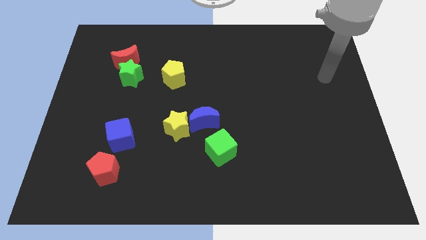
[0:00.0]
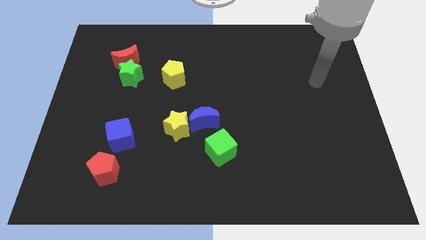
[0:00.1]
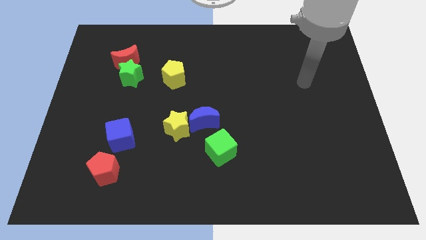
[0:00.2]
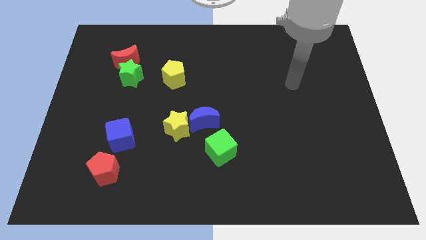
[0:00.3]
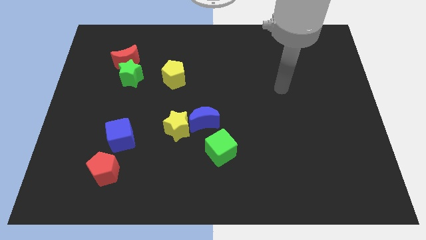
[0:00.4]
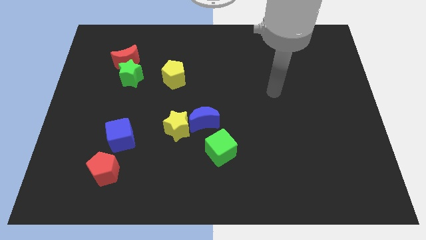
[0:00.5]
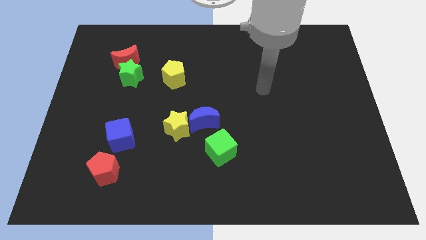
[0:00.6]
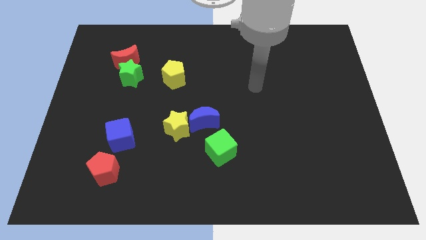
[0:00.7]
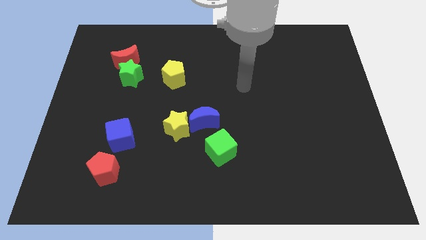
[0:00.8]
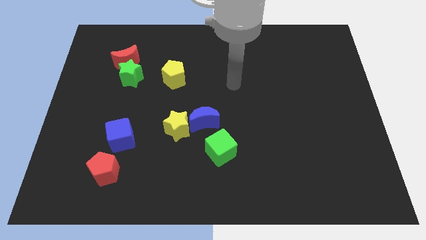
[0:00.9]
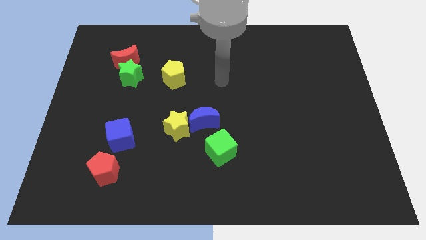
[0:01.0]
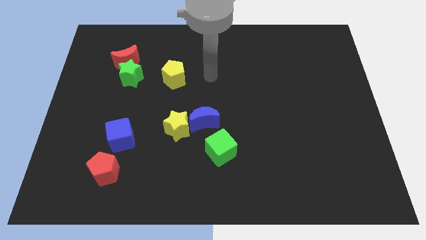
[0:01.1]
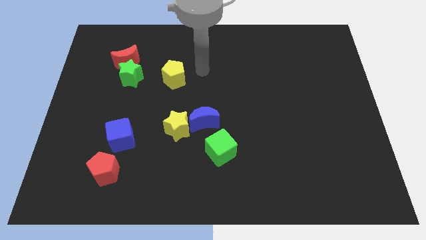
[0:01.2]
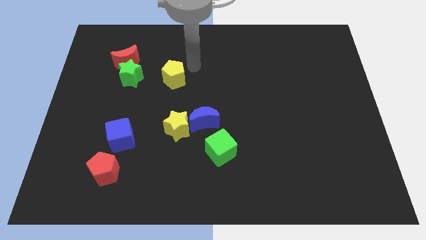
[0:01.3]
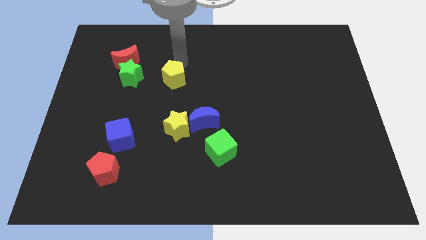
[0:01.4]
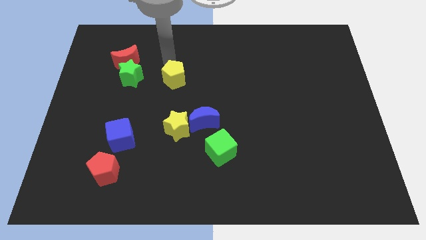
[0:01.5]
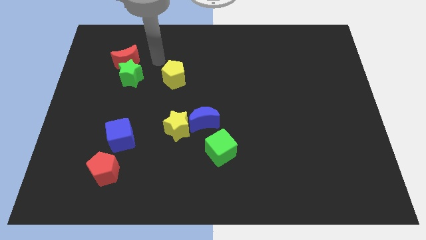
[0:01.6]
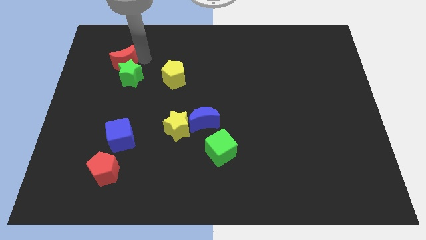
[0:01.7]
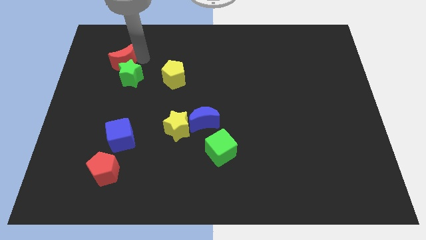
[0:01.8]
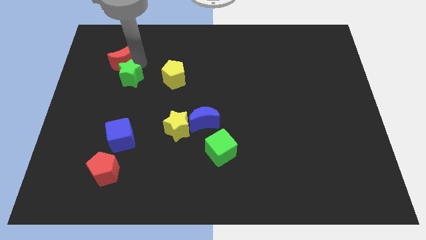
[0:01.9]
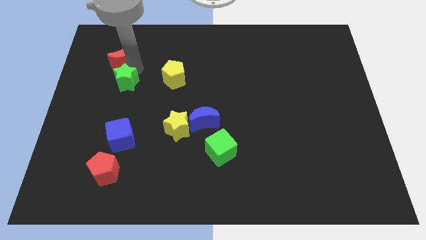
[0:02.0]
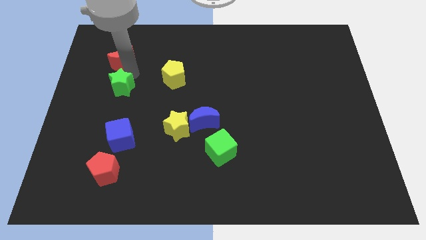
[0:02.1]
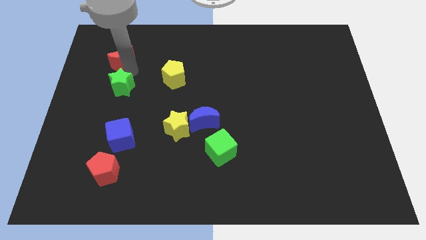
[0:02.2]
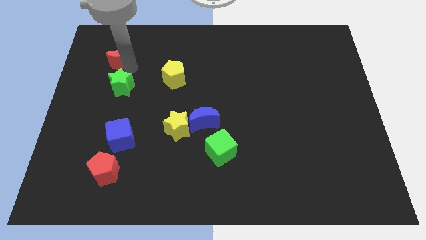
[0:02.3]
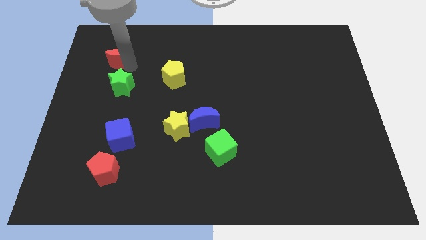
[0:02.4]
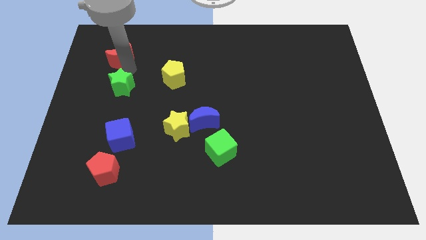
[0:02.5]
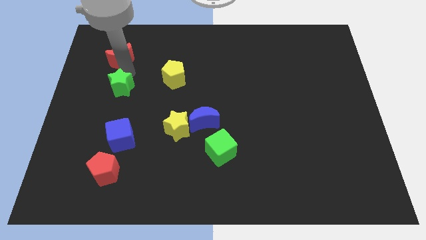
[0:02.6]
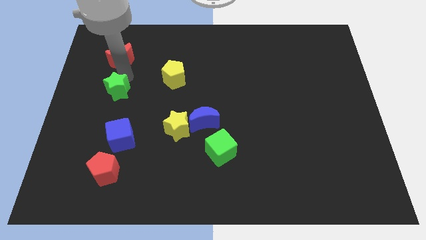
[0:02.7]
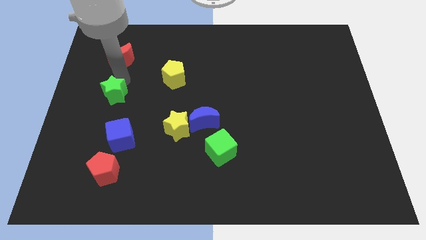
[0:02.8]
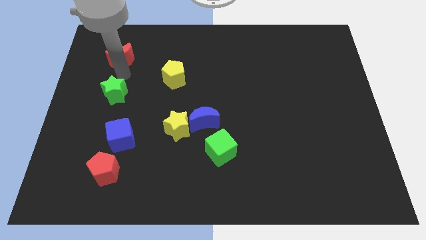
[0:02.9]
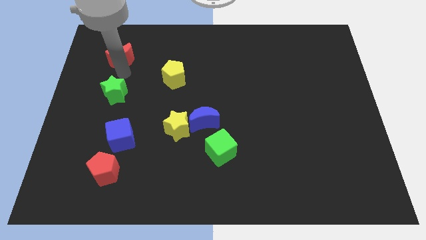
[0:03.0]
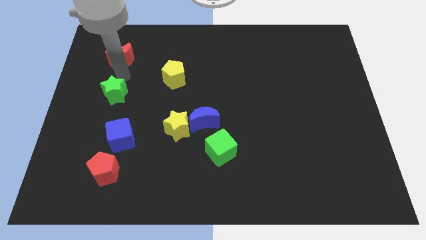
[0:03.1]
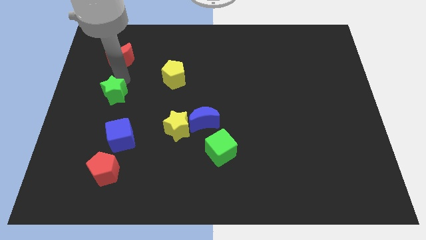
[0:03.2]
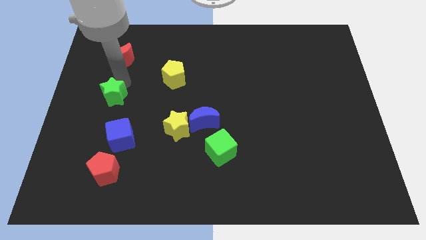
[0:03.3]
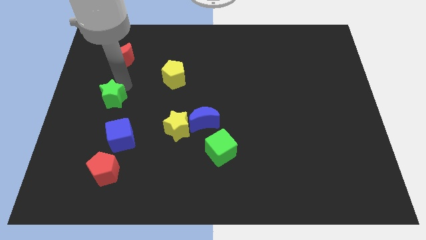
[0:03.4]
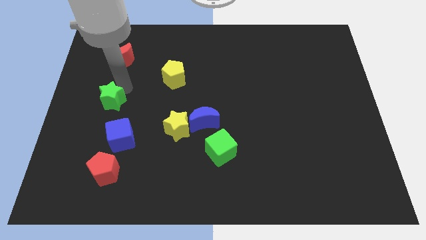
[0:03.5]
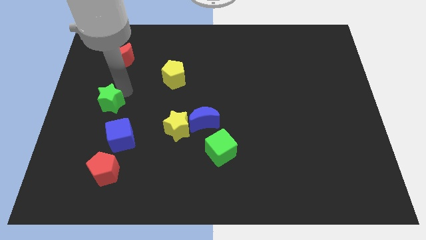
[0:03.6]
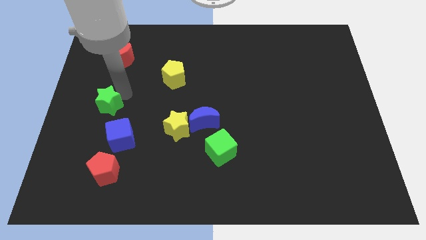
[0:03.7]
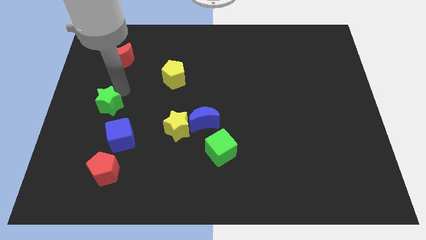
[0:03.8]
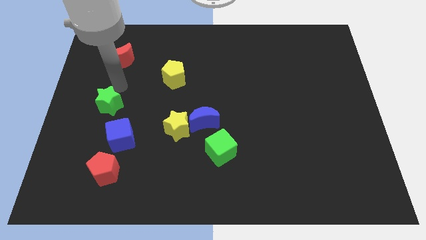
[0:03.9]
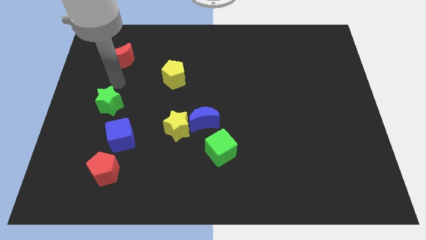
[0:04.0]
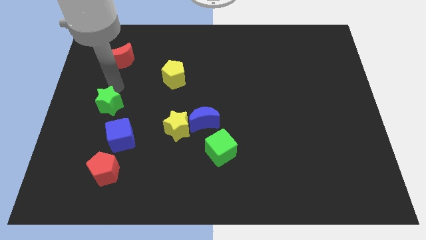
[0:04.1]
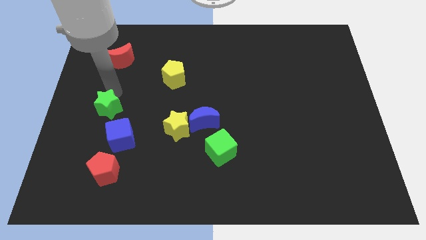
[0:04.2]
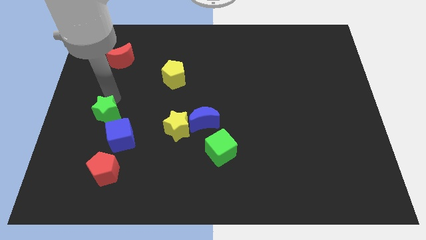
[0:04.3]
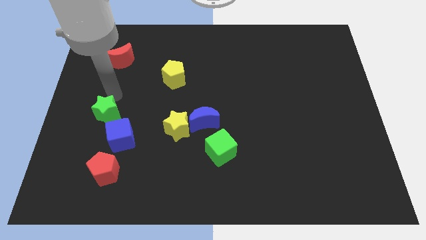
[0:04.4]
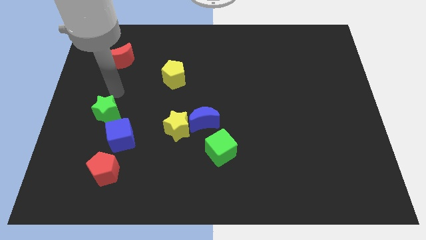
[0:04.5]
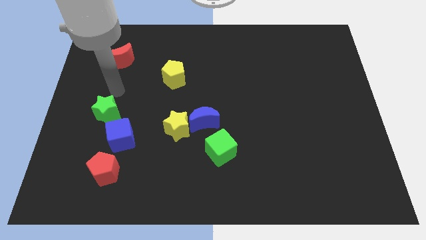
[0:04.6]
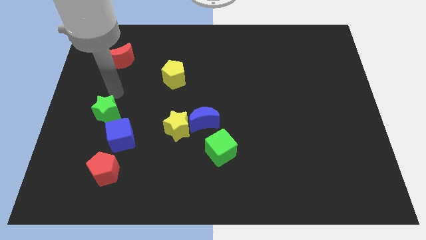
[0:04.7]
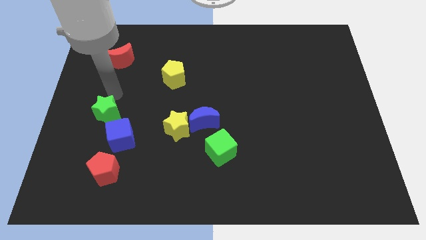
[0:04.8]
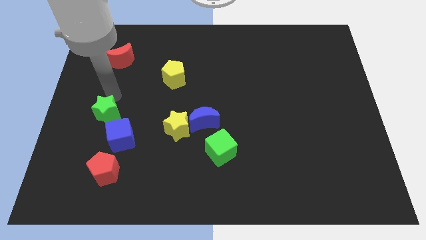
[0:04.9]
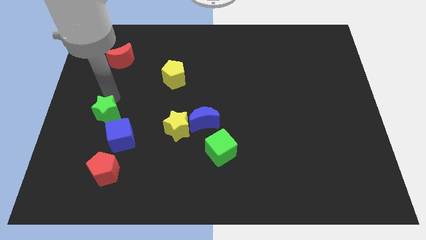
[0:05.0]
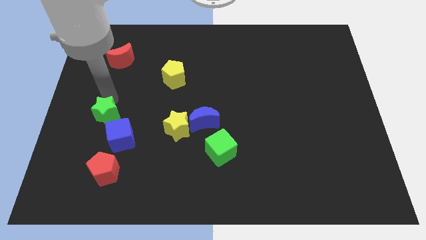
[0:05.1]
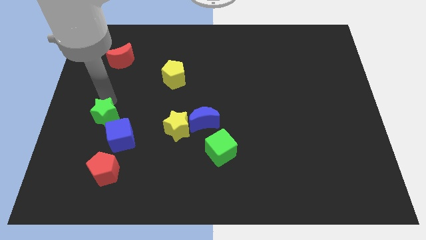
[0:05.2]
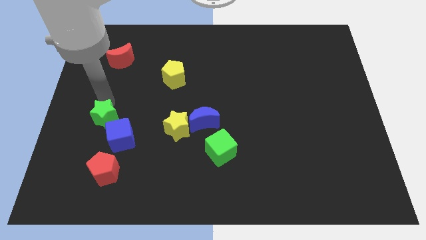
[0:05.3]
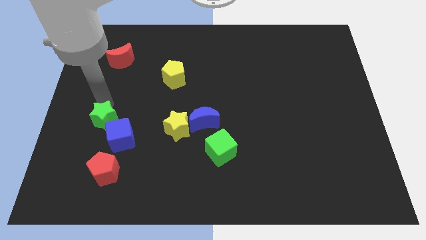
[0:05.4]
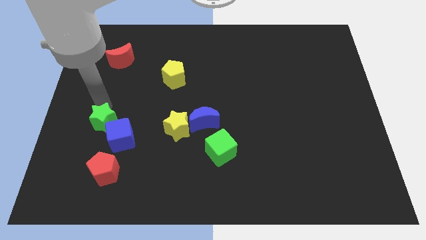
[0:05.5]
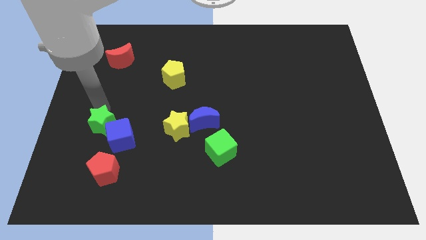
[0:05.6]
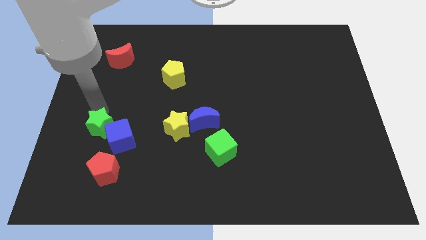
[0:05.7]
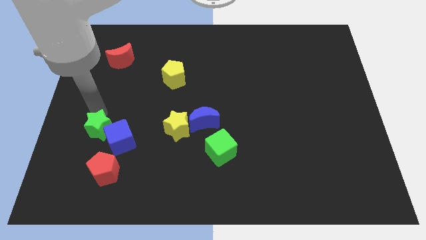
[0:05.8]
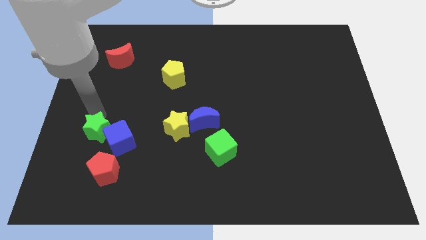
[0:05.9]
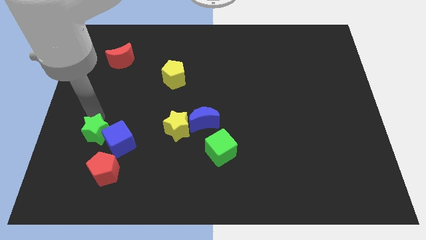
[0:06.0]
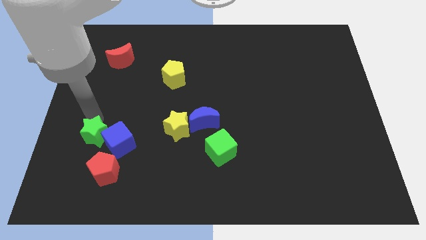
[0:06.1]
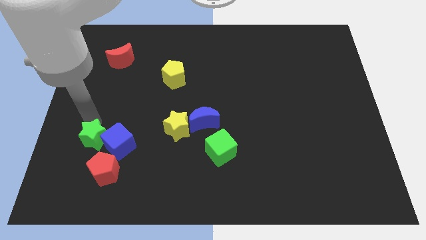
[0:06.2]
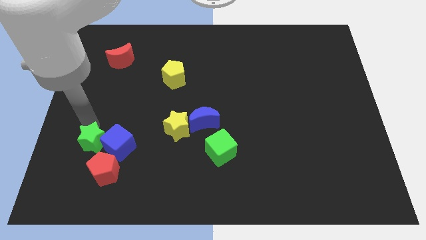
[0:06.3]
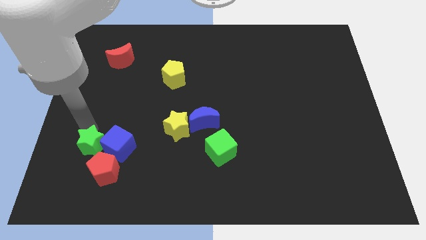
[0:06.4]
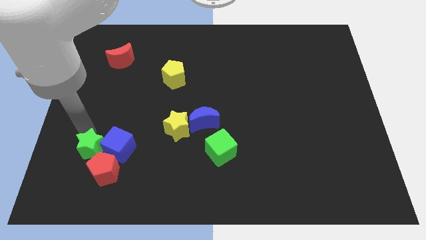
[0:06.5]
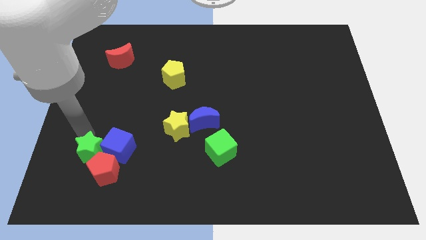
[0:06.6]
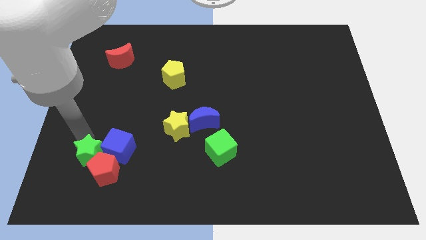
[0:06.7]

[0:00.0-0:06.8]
slide the green star towards the red pentagon

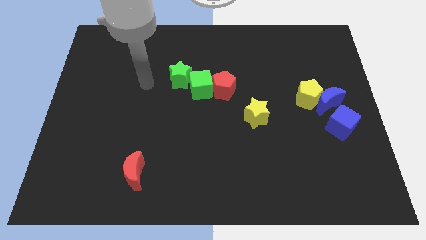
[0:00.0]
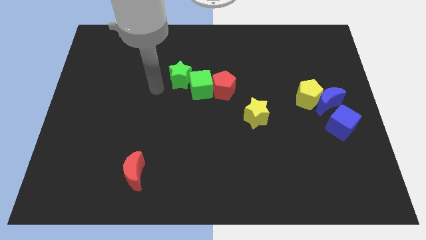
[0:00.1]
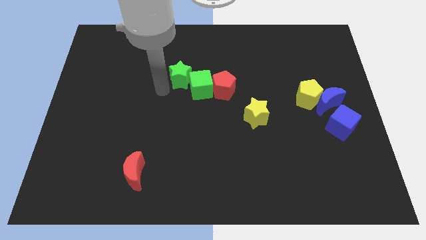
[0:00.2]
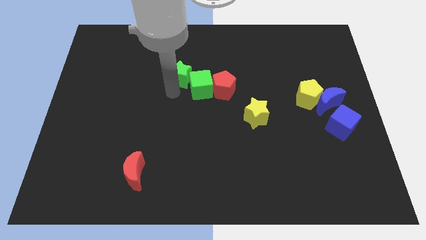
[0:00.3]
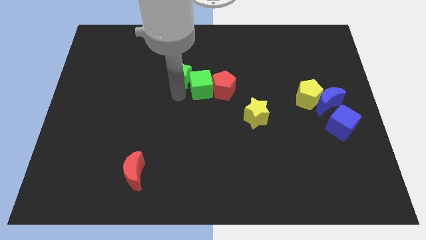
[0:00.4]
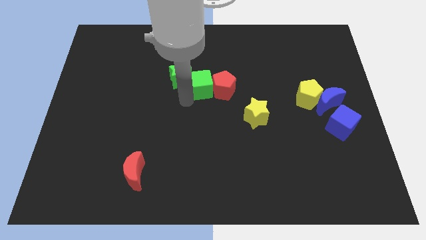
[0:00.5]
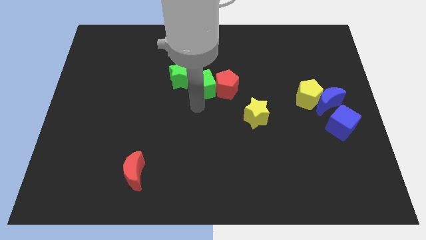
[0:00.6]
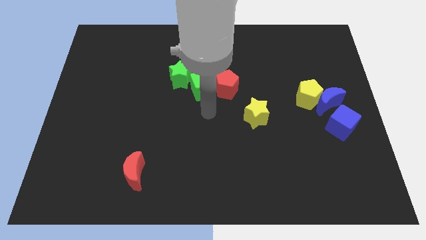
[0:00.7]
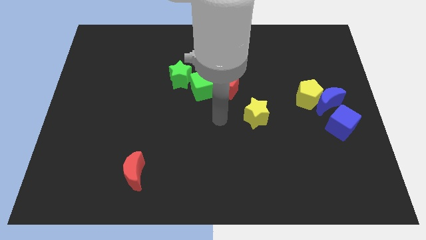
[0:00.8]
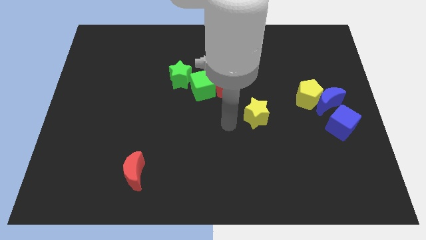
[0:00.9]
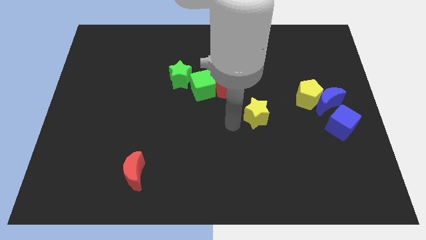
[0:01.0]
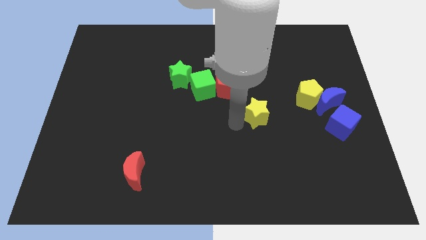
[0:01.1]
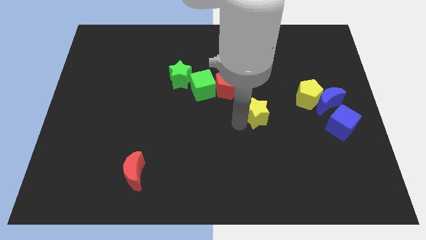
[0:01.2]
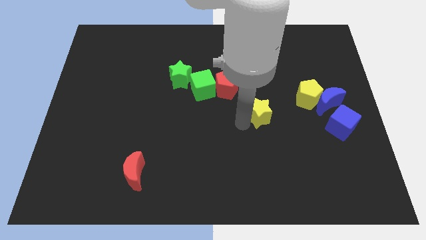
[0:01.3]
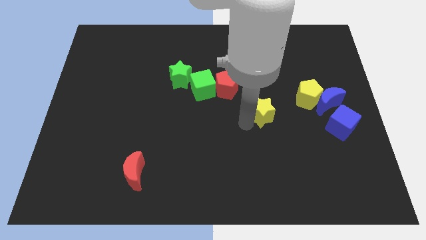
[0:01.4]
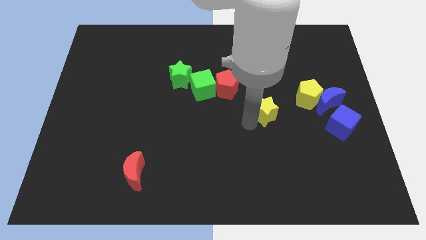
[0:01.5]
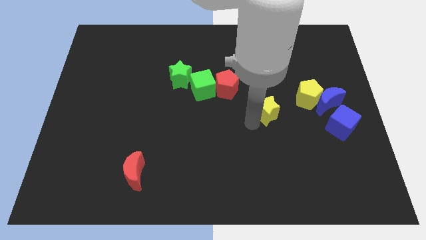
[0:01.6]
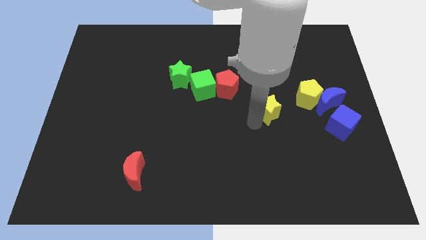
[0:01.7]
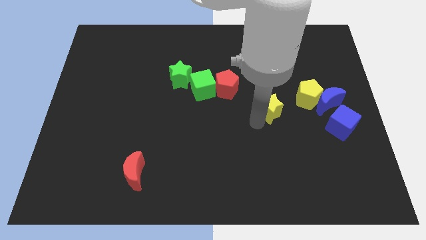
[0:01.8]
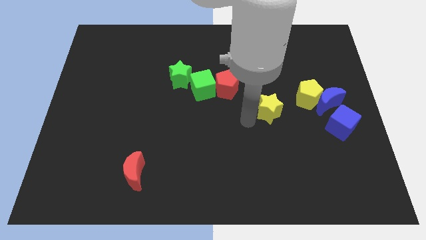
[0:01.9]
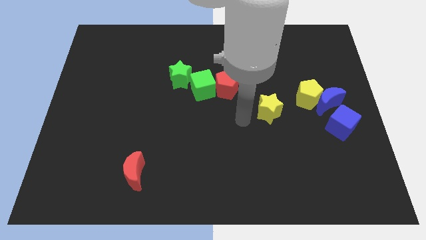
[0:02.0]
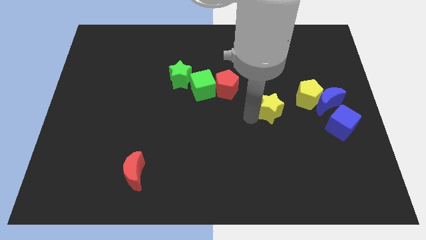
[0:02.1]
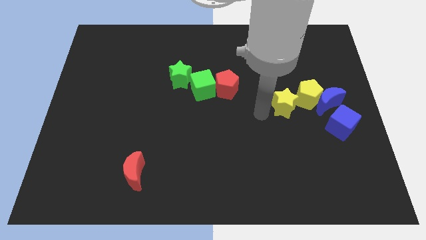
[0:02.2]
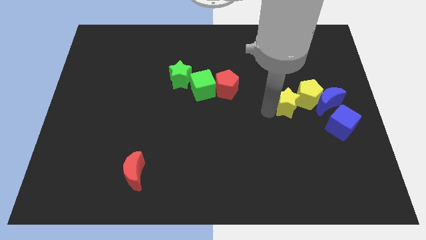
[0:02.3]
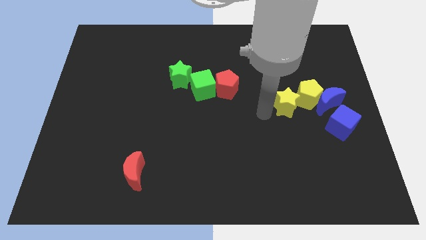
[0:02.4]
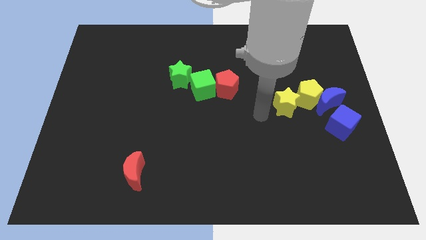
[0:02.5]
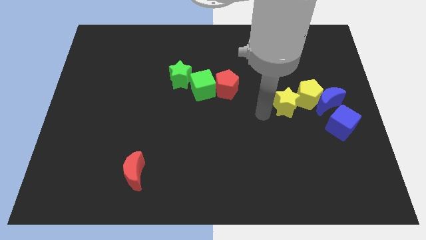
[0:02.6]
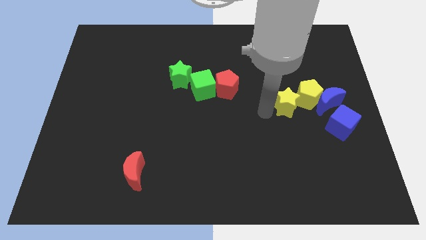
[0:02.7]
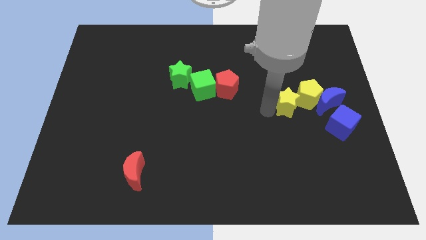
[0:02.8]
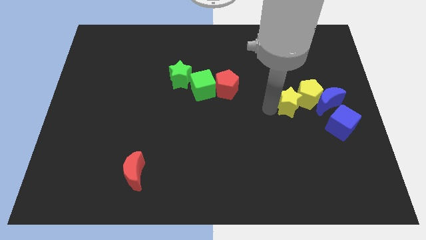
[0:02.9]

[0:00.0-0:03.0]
put the yellow star to the yellow pentagon
